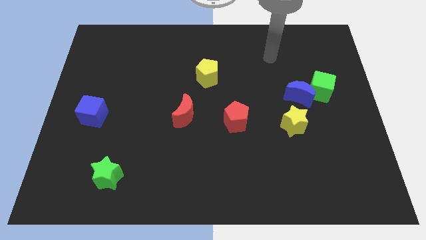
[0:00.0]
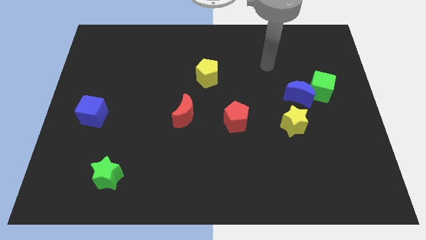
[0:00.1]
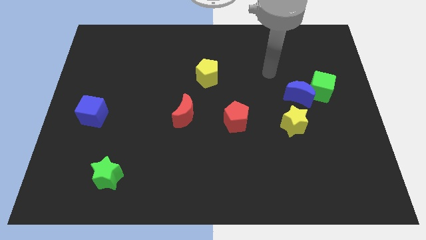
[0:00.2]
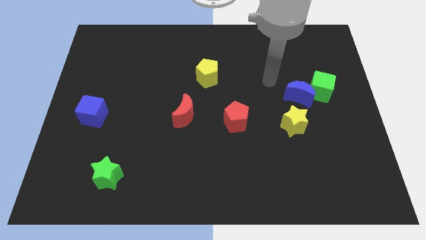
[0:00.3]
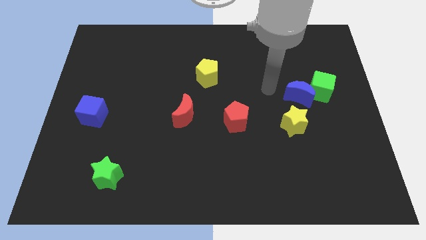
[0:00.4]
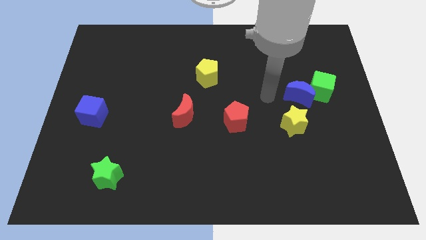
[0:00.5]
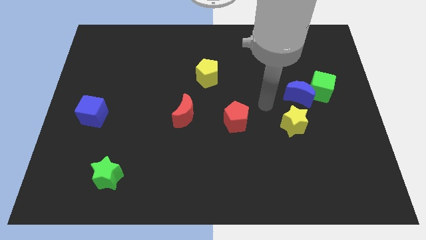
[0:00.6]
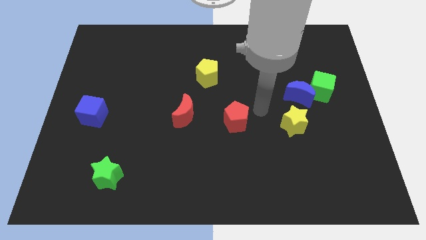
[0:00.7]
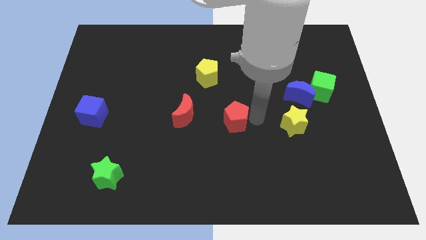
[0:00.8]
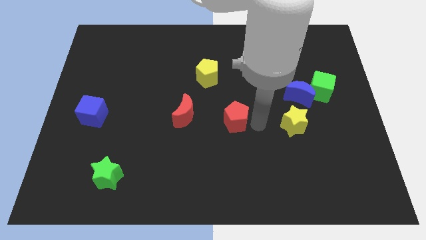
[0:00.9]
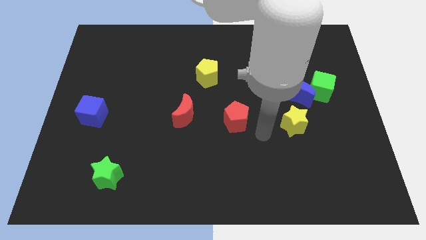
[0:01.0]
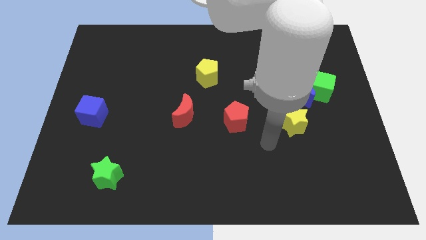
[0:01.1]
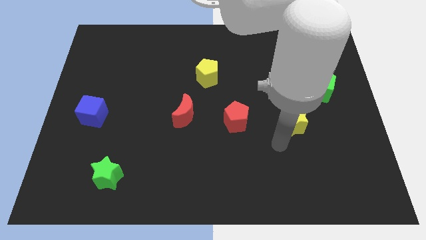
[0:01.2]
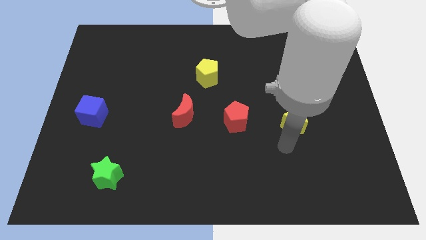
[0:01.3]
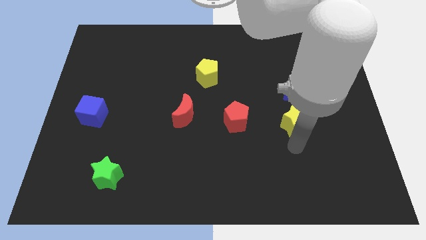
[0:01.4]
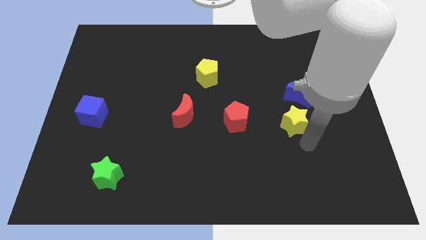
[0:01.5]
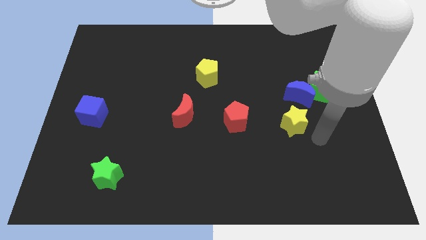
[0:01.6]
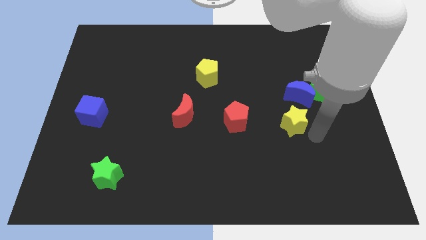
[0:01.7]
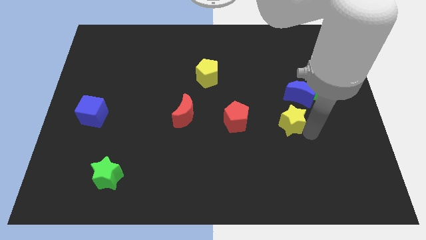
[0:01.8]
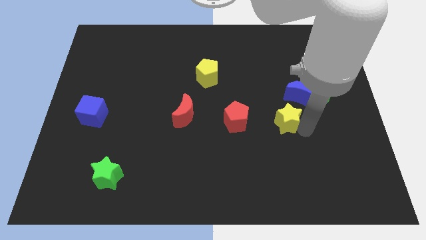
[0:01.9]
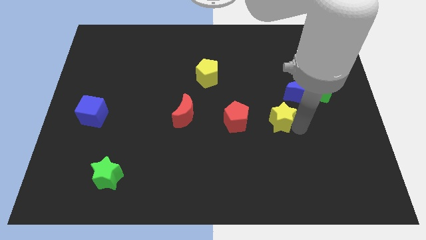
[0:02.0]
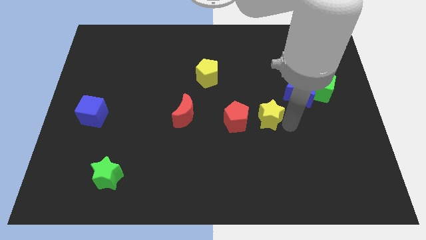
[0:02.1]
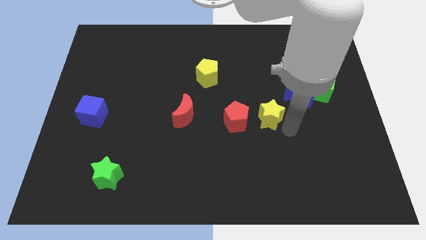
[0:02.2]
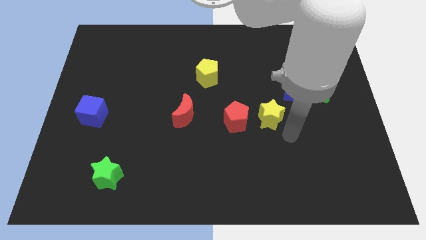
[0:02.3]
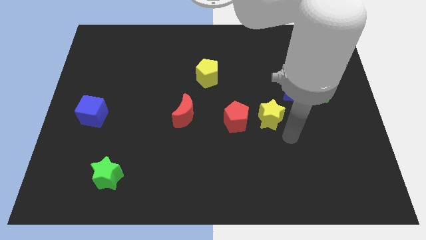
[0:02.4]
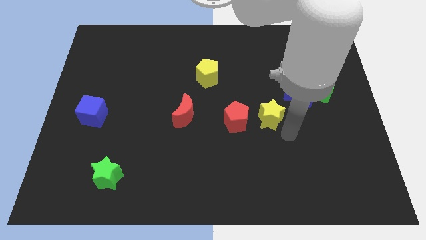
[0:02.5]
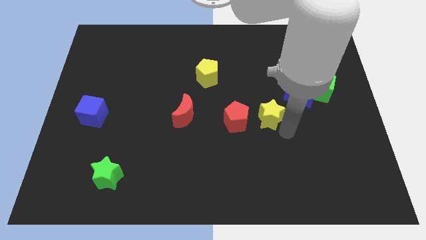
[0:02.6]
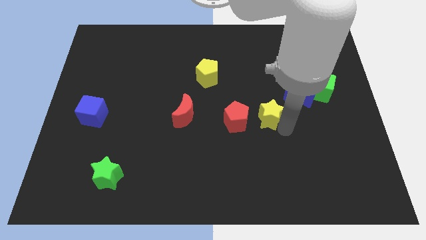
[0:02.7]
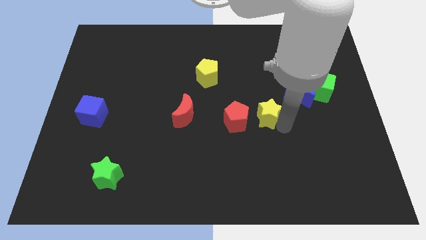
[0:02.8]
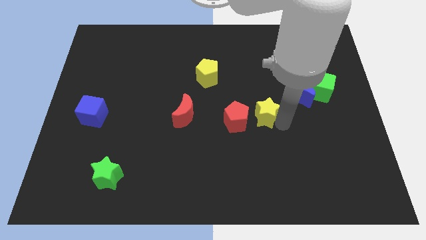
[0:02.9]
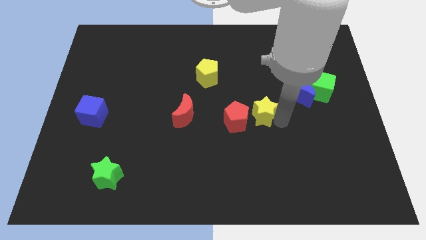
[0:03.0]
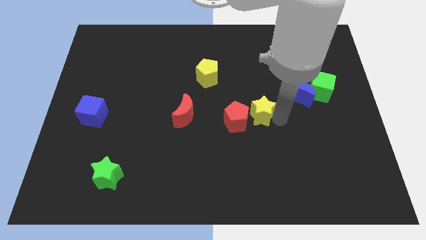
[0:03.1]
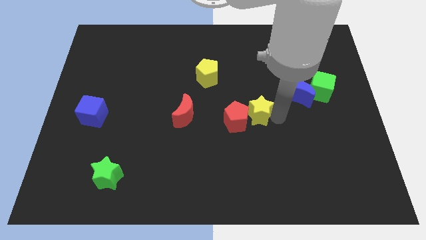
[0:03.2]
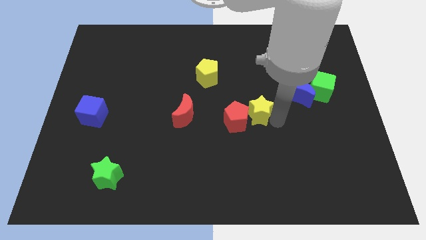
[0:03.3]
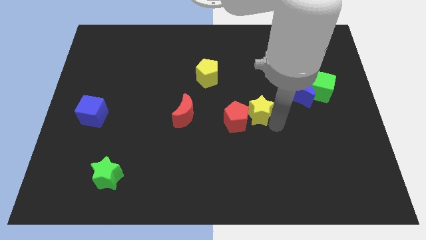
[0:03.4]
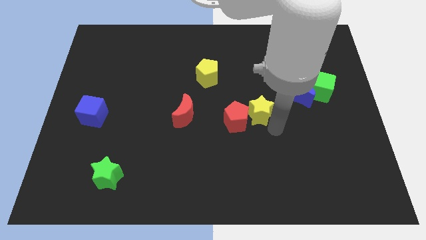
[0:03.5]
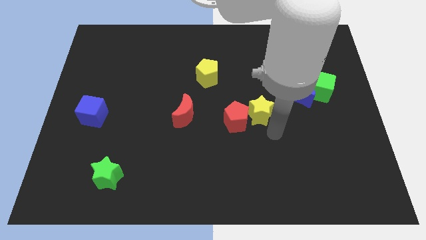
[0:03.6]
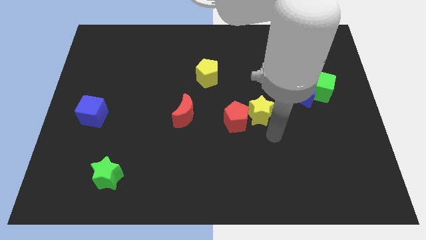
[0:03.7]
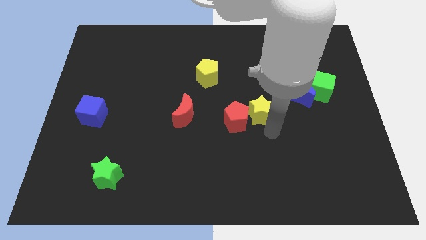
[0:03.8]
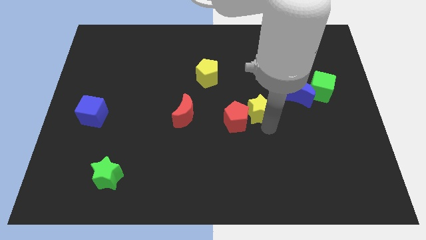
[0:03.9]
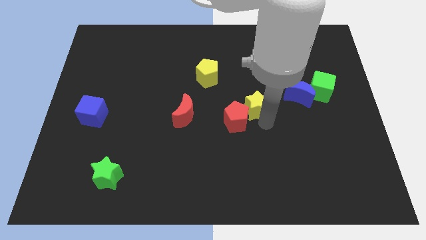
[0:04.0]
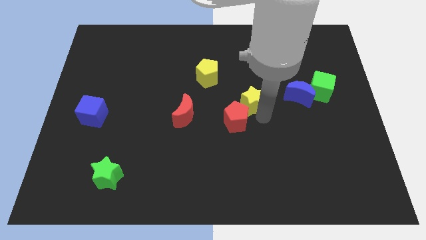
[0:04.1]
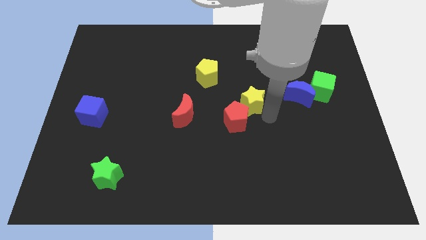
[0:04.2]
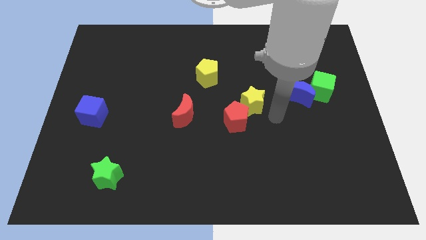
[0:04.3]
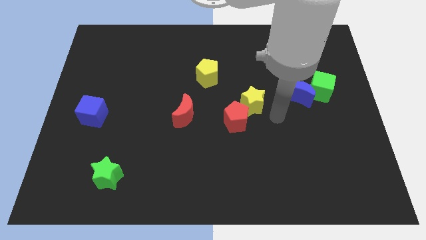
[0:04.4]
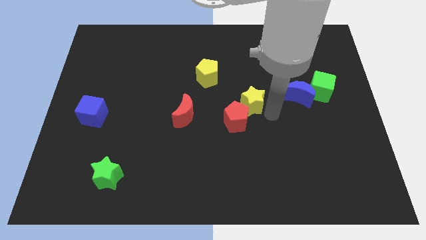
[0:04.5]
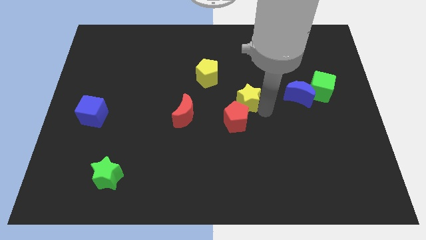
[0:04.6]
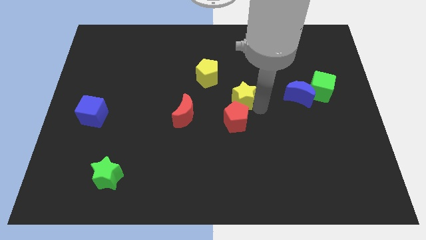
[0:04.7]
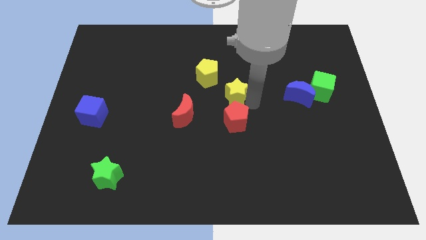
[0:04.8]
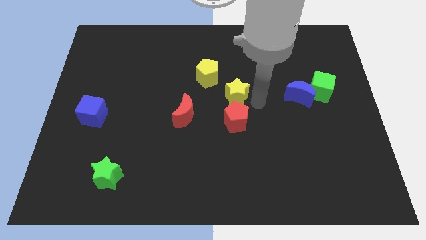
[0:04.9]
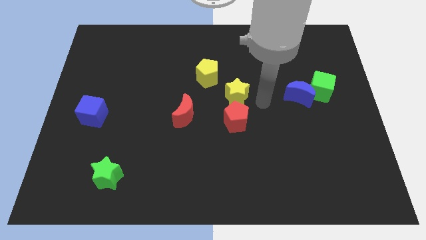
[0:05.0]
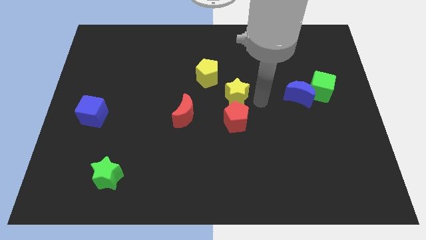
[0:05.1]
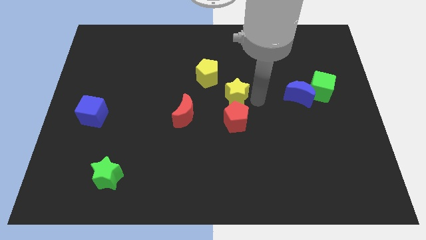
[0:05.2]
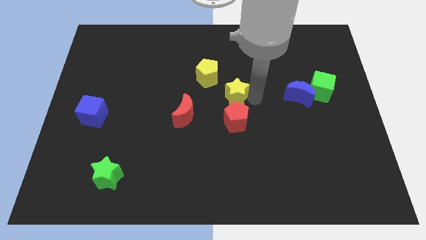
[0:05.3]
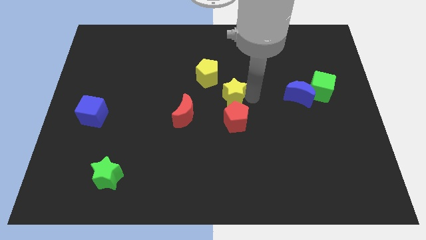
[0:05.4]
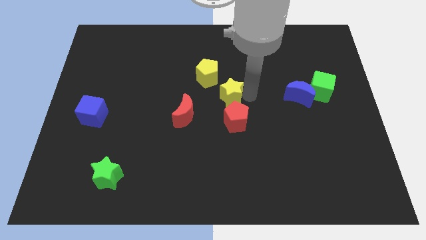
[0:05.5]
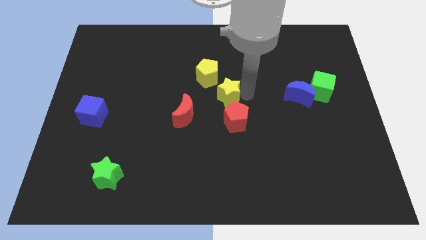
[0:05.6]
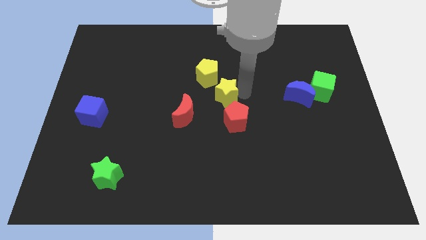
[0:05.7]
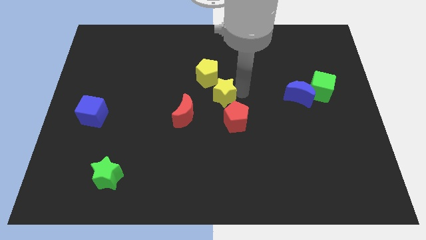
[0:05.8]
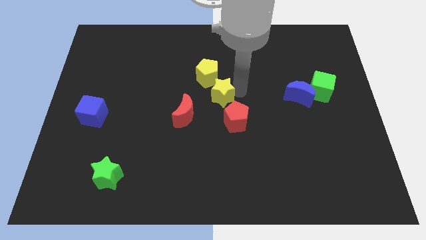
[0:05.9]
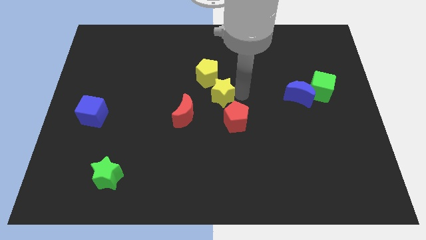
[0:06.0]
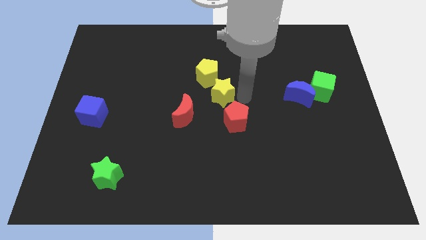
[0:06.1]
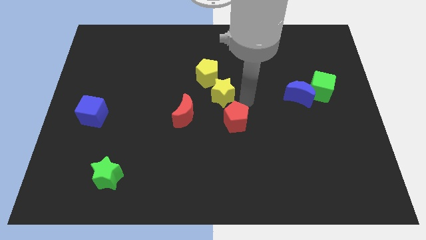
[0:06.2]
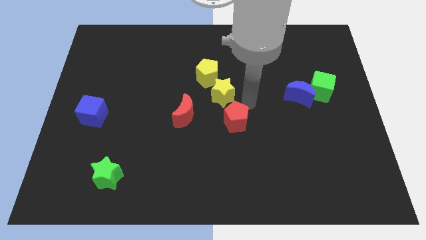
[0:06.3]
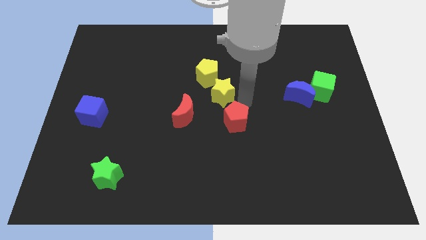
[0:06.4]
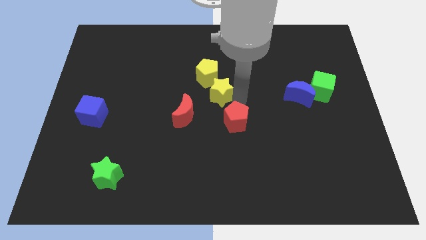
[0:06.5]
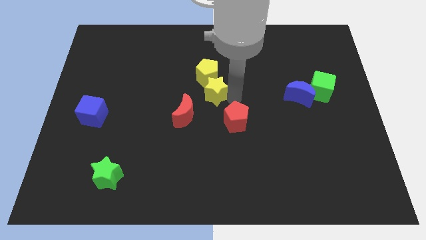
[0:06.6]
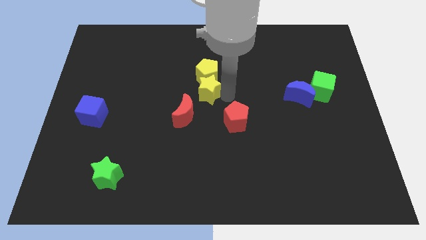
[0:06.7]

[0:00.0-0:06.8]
put the yellow star to the bottom left of the yellow pentagon
